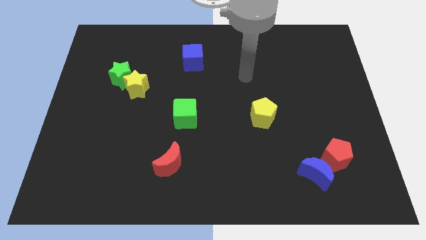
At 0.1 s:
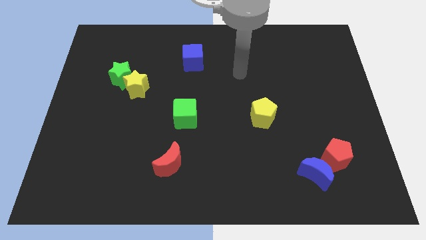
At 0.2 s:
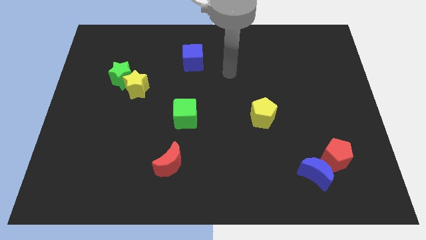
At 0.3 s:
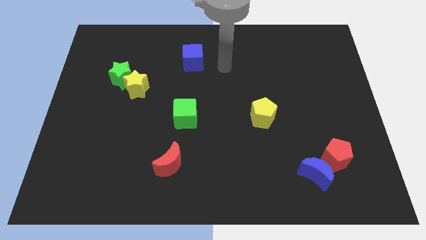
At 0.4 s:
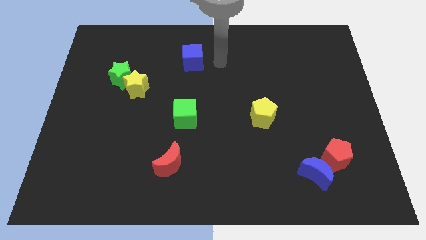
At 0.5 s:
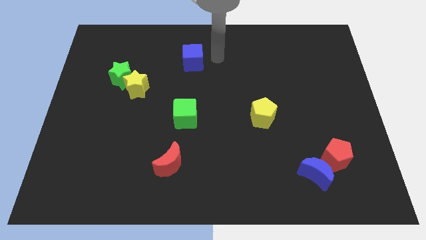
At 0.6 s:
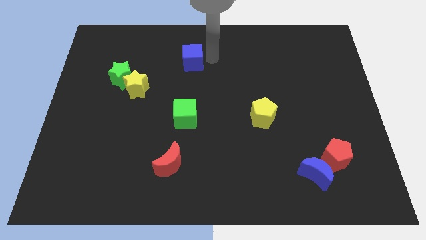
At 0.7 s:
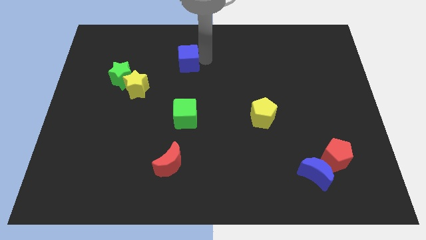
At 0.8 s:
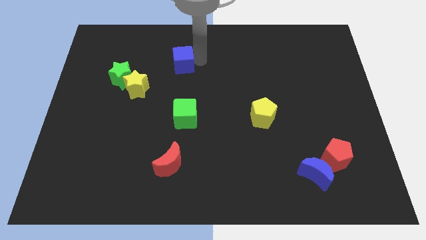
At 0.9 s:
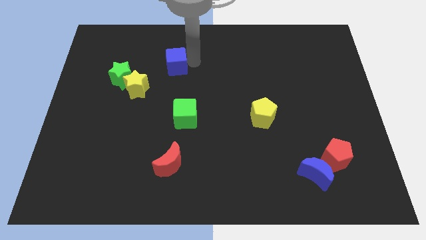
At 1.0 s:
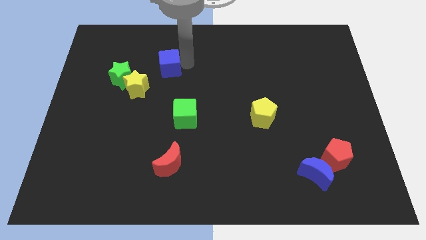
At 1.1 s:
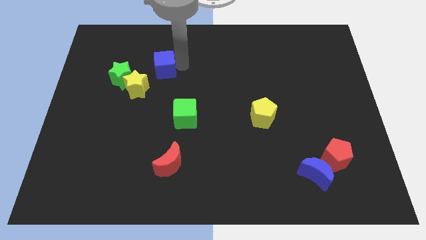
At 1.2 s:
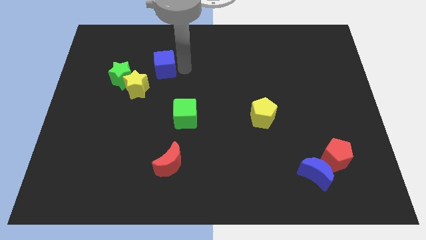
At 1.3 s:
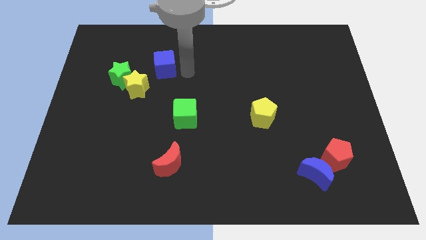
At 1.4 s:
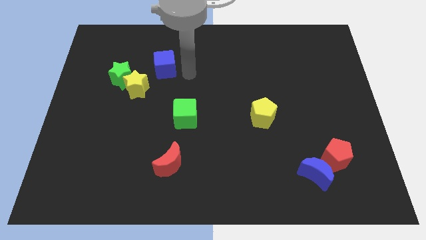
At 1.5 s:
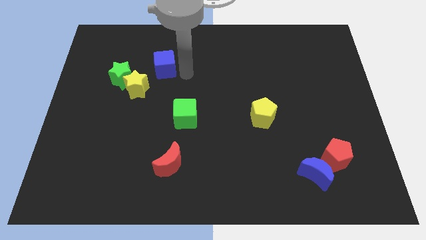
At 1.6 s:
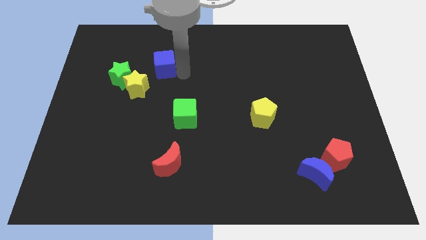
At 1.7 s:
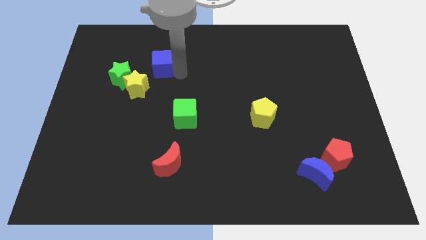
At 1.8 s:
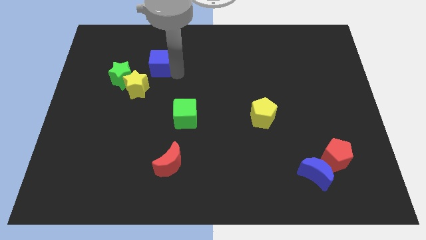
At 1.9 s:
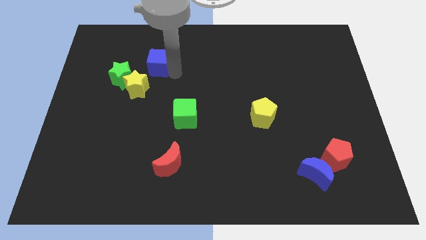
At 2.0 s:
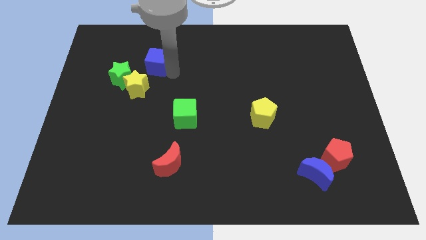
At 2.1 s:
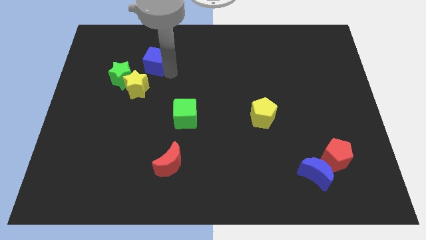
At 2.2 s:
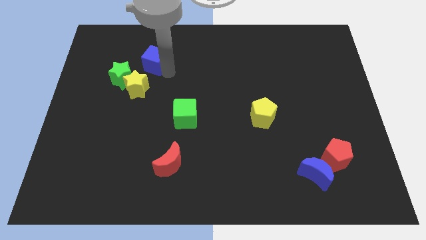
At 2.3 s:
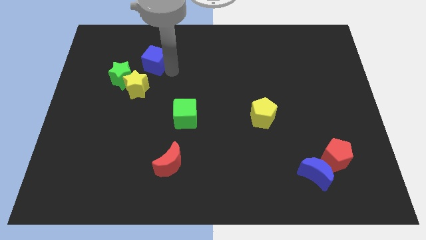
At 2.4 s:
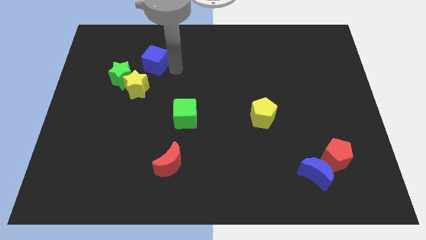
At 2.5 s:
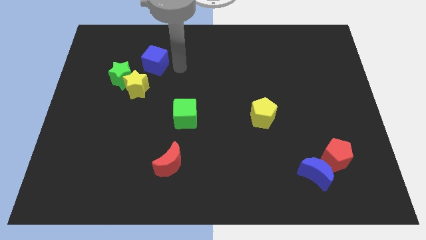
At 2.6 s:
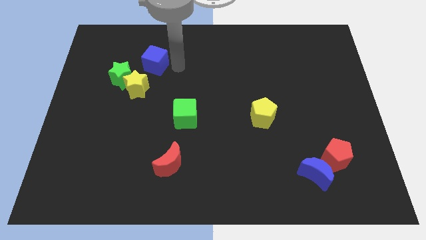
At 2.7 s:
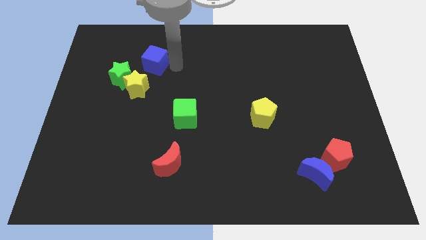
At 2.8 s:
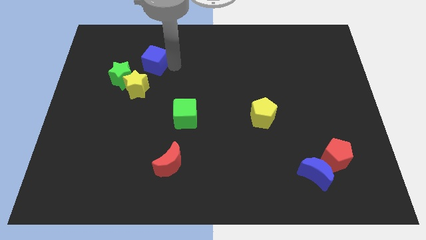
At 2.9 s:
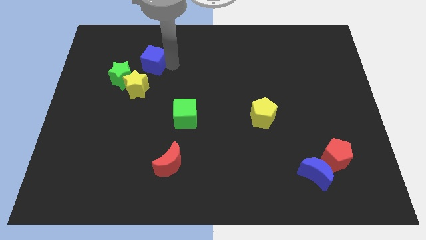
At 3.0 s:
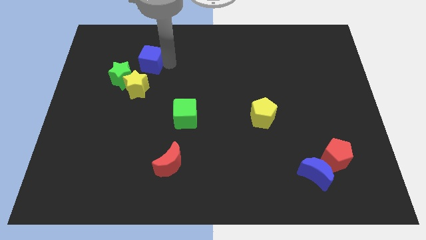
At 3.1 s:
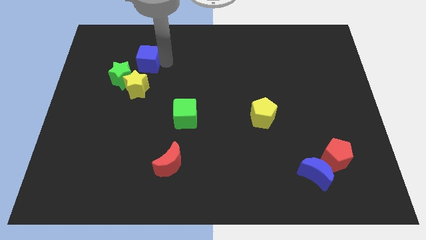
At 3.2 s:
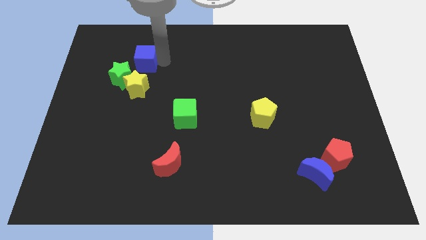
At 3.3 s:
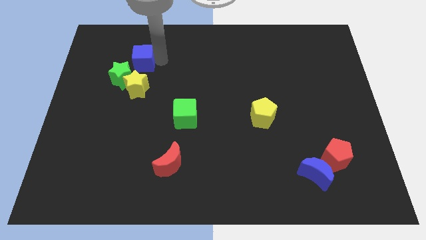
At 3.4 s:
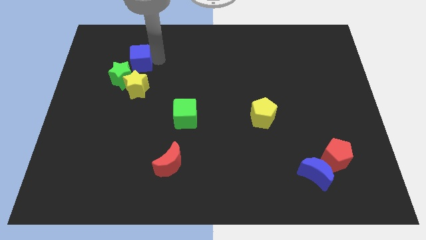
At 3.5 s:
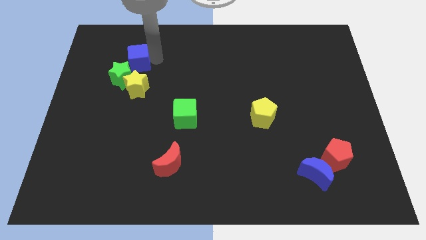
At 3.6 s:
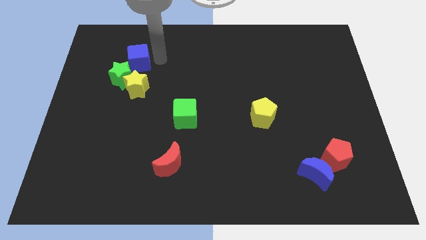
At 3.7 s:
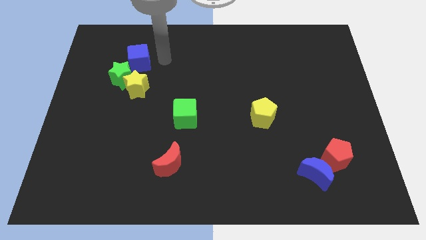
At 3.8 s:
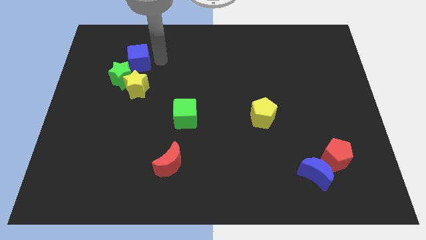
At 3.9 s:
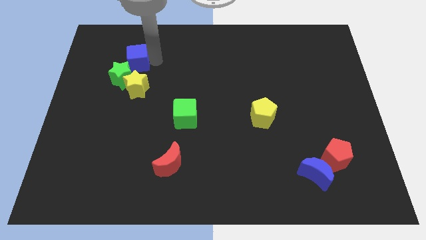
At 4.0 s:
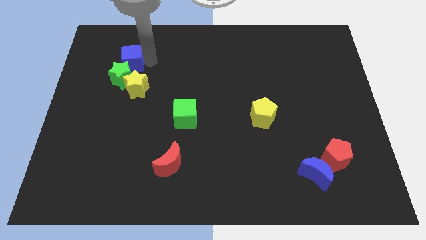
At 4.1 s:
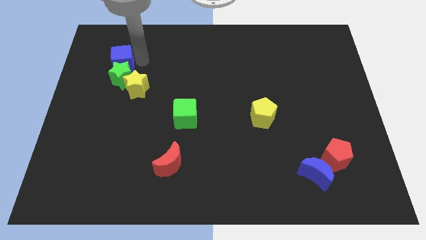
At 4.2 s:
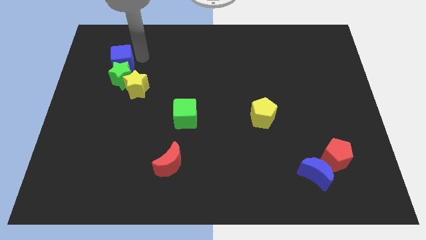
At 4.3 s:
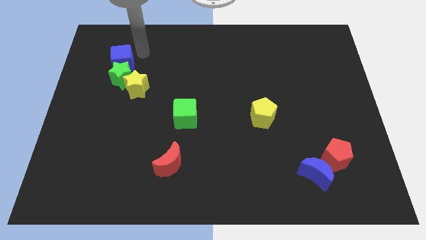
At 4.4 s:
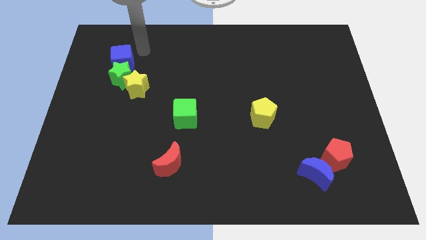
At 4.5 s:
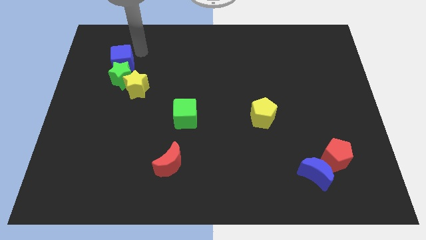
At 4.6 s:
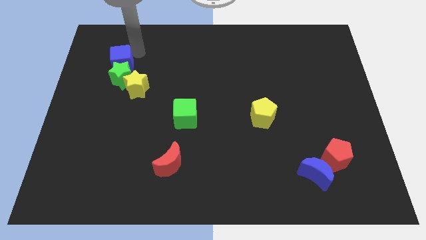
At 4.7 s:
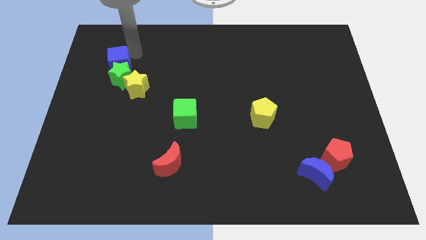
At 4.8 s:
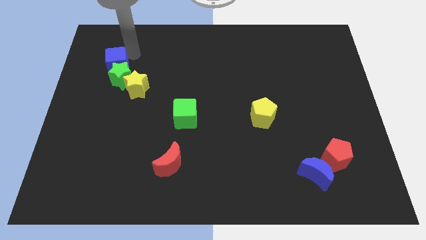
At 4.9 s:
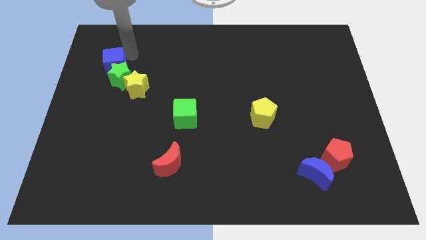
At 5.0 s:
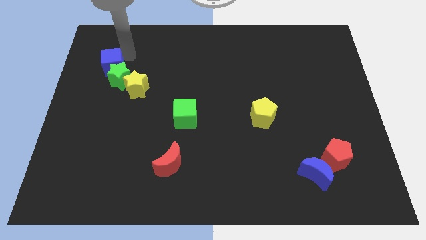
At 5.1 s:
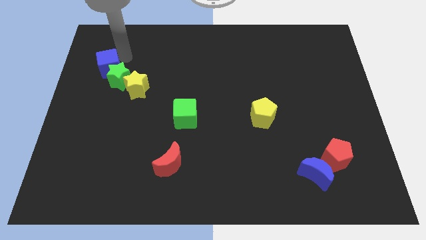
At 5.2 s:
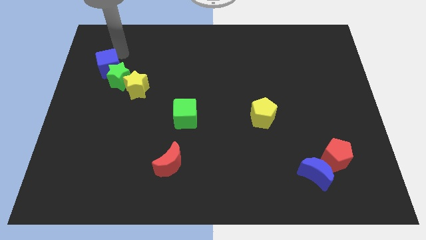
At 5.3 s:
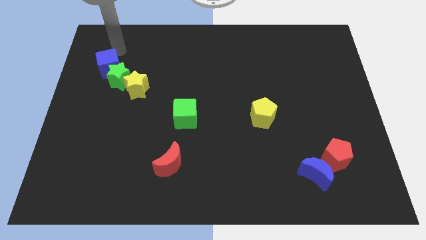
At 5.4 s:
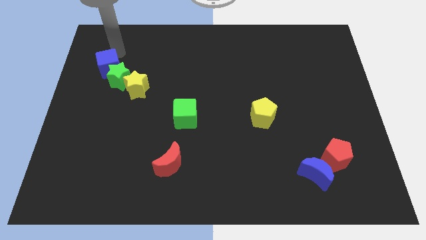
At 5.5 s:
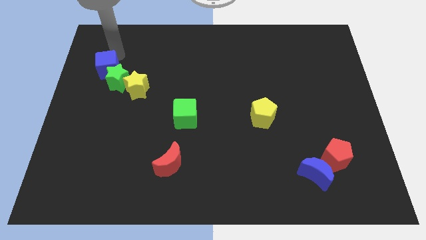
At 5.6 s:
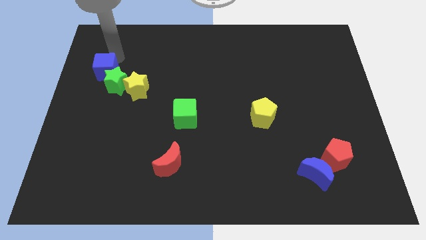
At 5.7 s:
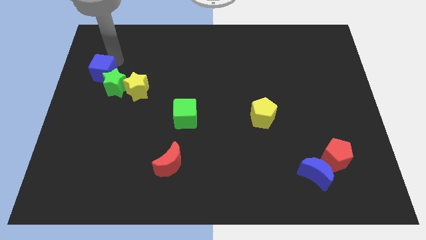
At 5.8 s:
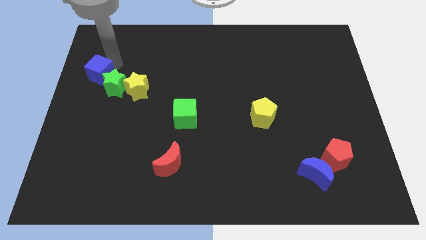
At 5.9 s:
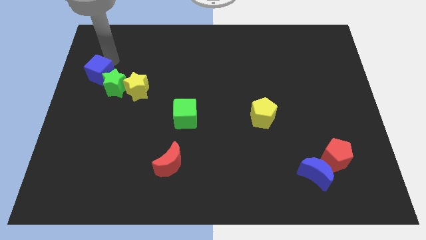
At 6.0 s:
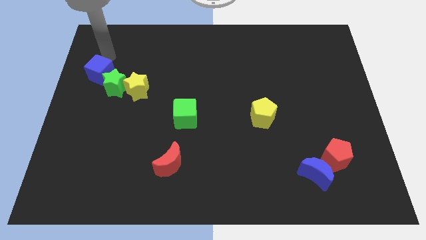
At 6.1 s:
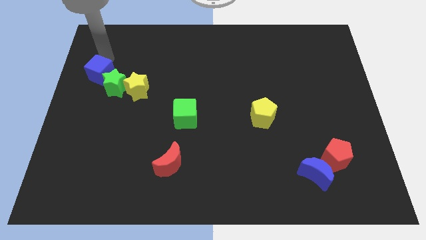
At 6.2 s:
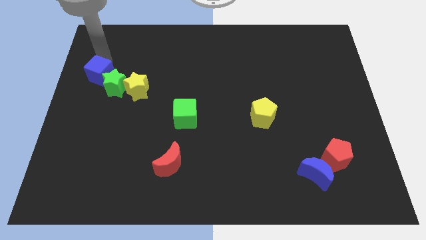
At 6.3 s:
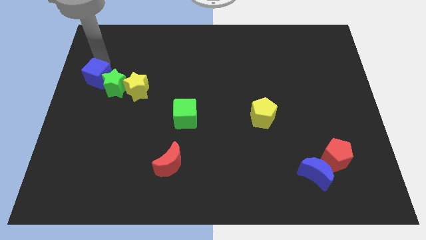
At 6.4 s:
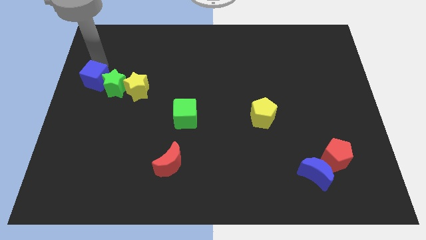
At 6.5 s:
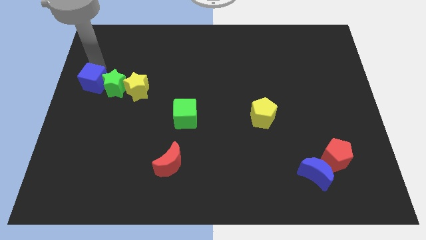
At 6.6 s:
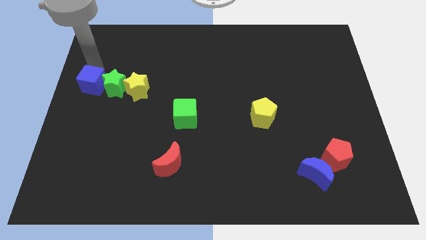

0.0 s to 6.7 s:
slide the blue cube to the bottom left side of the green star

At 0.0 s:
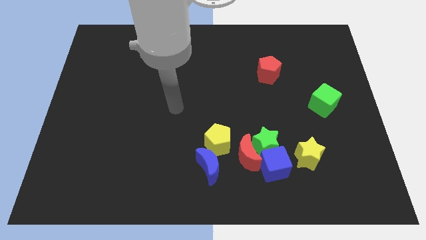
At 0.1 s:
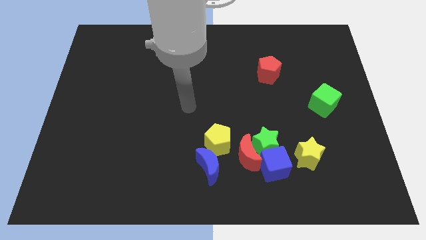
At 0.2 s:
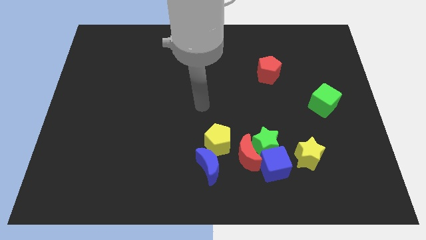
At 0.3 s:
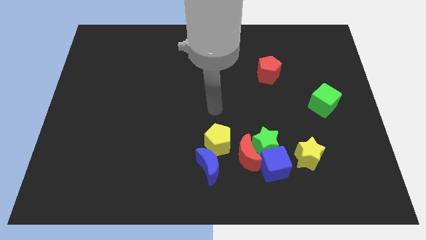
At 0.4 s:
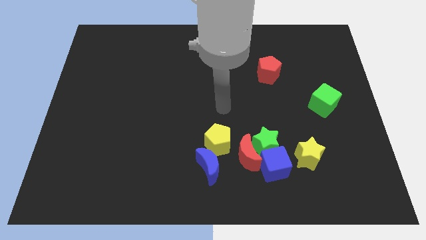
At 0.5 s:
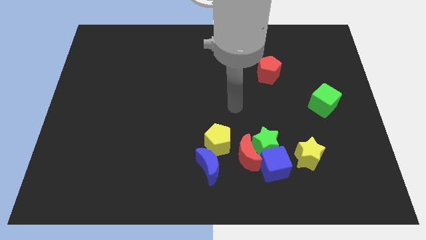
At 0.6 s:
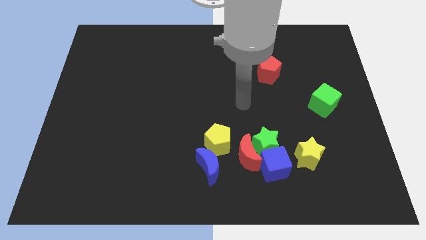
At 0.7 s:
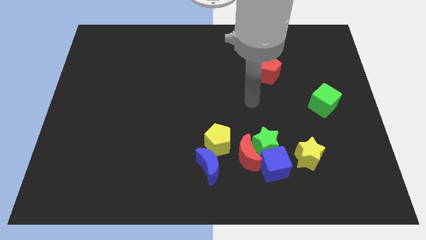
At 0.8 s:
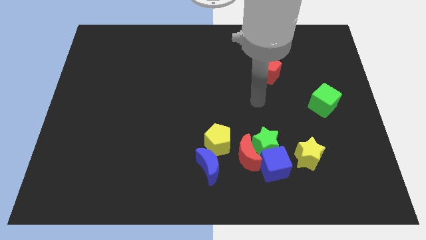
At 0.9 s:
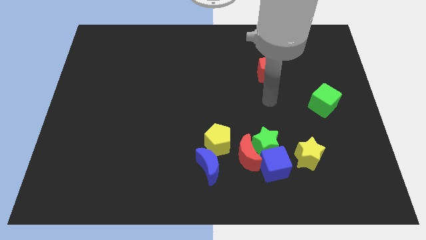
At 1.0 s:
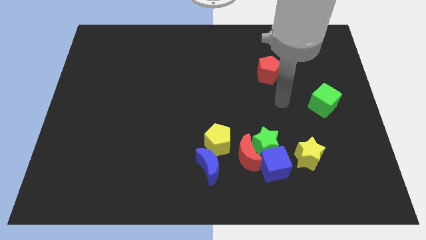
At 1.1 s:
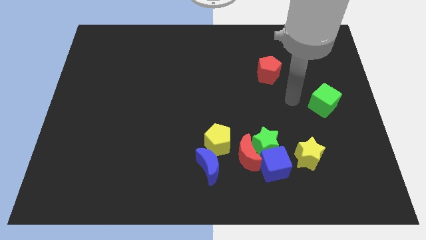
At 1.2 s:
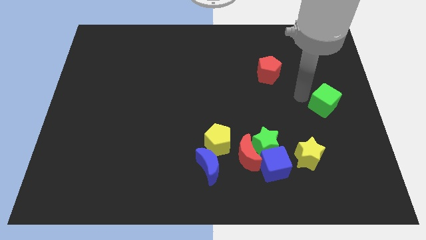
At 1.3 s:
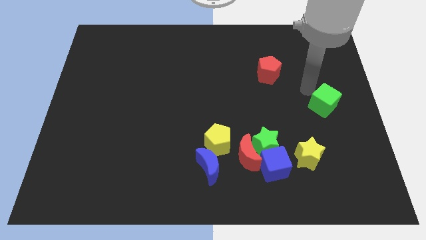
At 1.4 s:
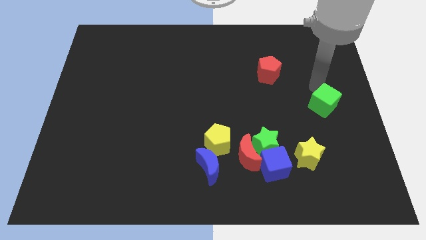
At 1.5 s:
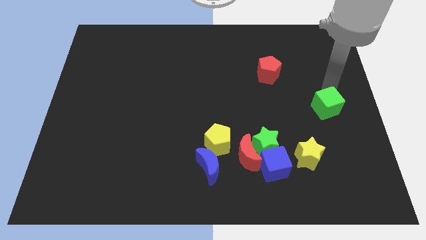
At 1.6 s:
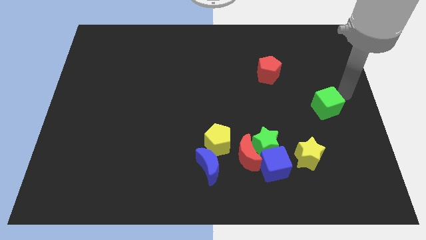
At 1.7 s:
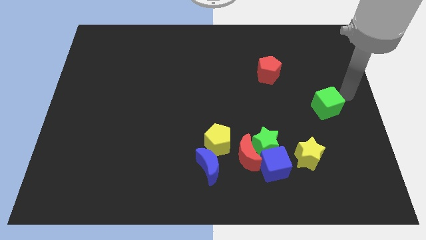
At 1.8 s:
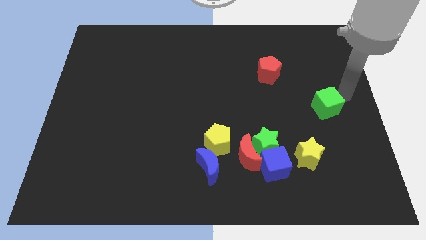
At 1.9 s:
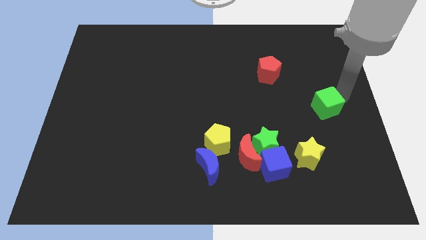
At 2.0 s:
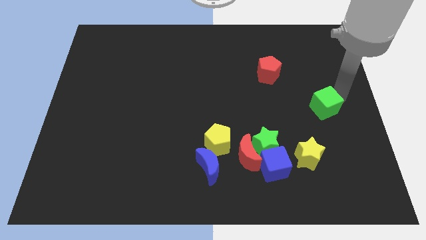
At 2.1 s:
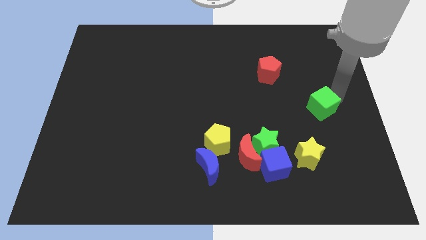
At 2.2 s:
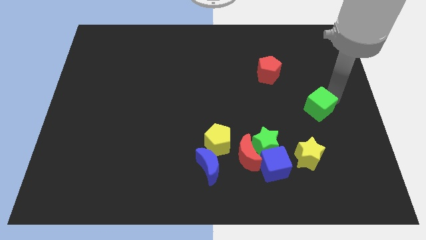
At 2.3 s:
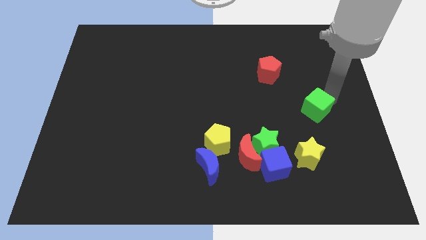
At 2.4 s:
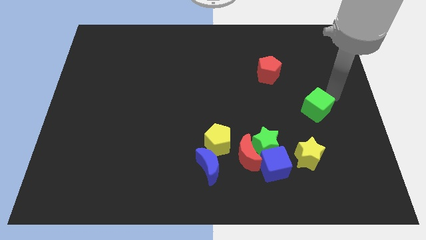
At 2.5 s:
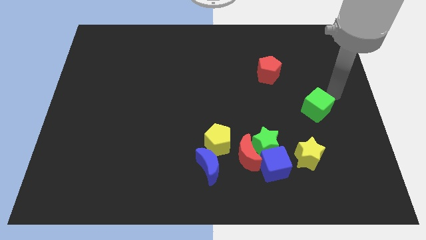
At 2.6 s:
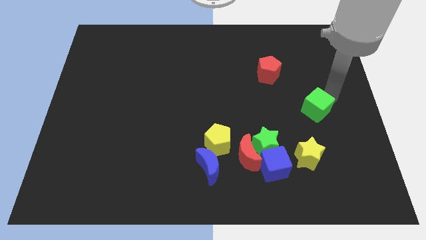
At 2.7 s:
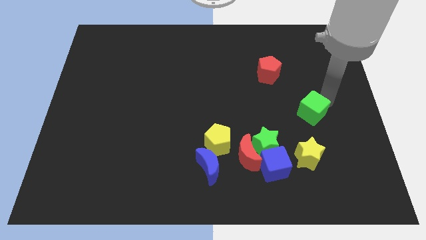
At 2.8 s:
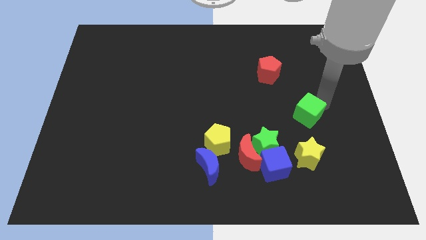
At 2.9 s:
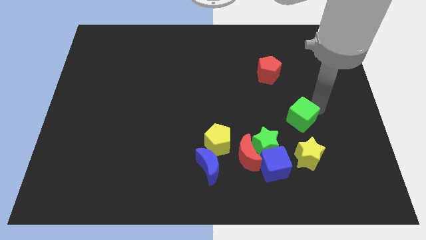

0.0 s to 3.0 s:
push the green cube to the top right of the green star
